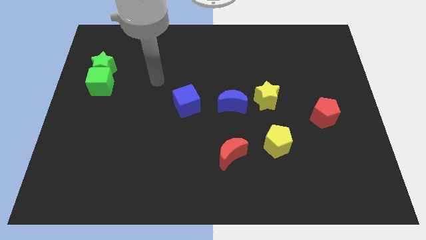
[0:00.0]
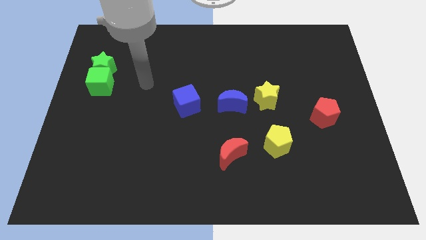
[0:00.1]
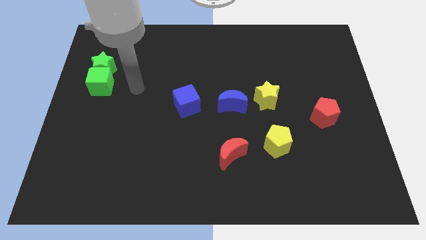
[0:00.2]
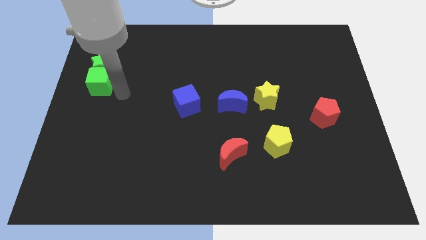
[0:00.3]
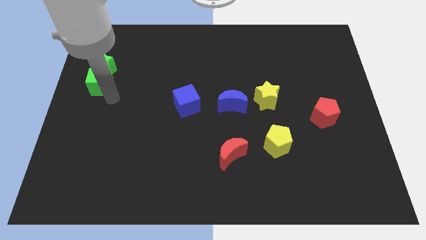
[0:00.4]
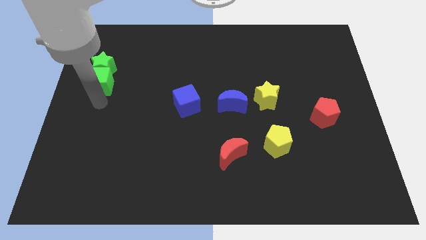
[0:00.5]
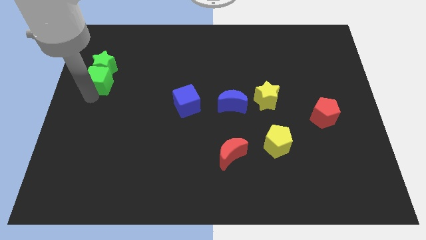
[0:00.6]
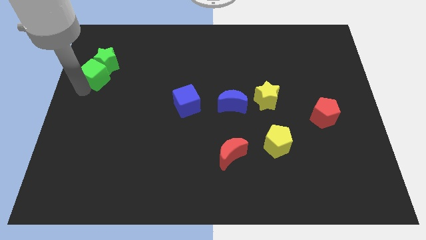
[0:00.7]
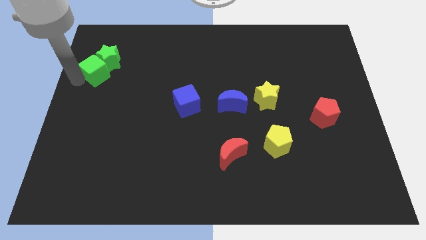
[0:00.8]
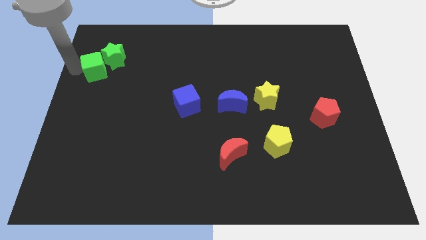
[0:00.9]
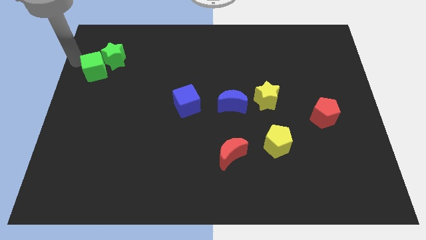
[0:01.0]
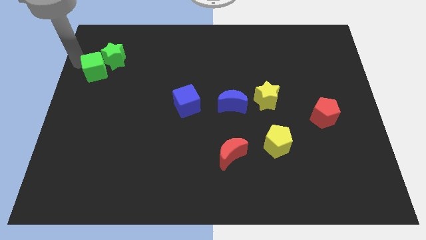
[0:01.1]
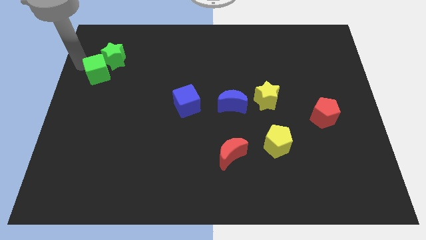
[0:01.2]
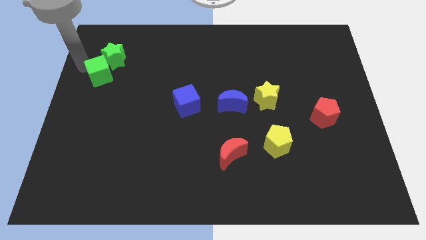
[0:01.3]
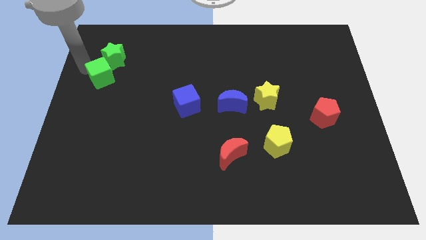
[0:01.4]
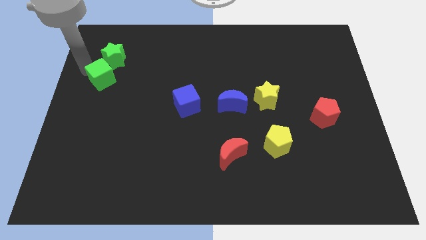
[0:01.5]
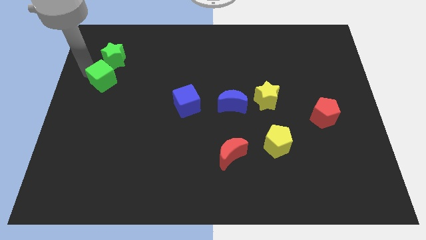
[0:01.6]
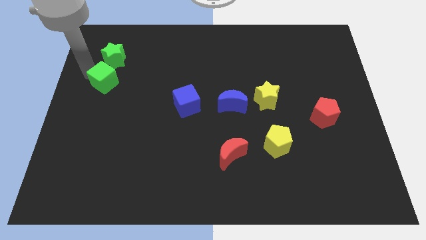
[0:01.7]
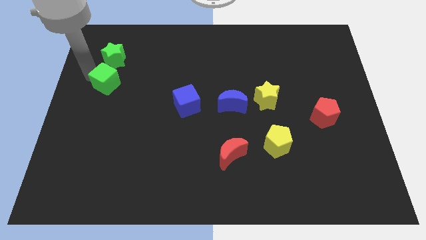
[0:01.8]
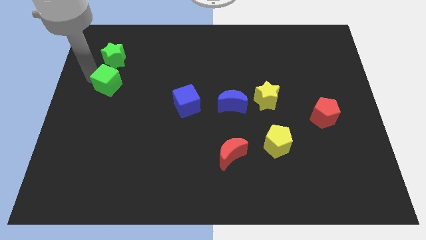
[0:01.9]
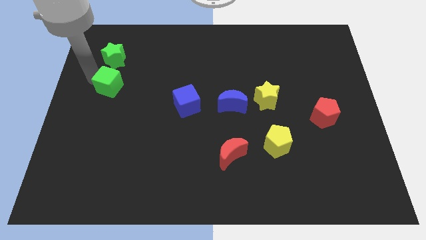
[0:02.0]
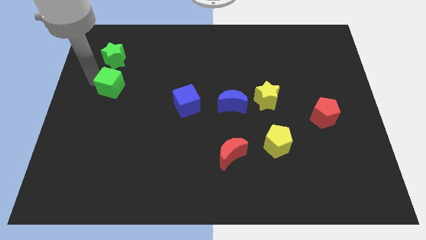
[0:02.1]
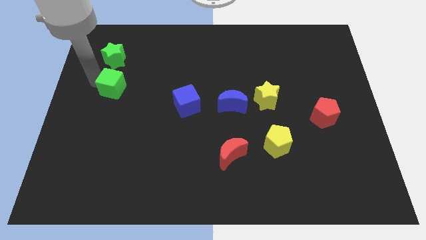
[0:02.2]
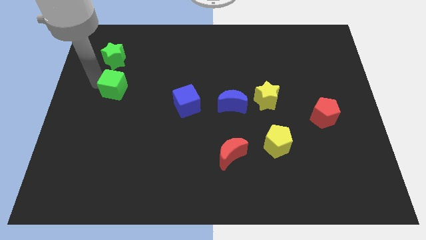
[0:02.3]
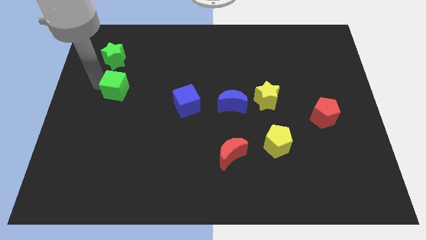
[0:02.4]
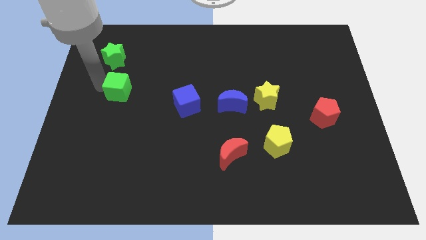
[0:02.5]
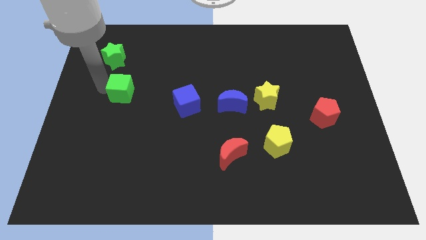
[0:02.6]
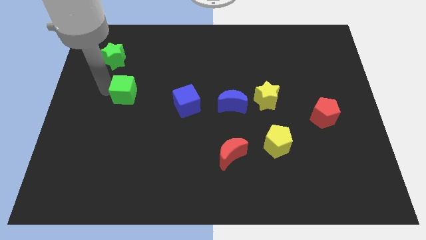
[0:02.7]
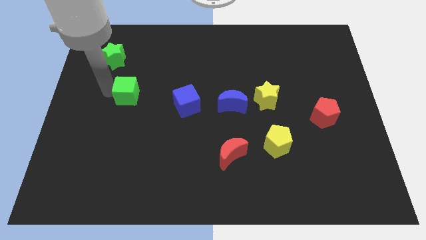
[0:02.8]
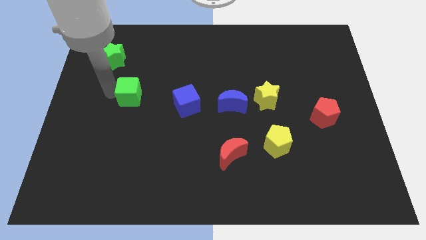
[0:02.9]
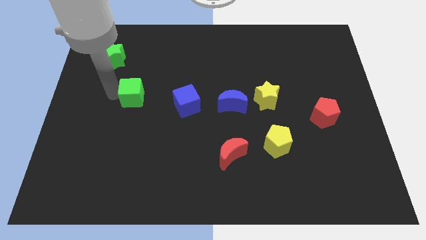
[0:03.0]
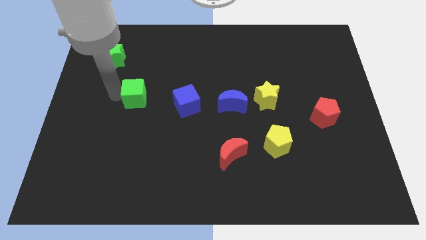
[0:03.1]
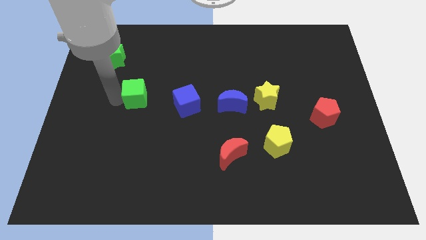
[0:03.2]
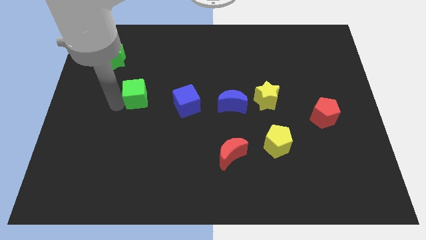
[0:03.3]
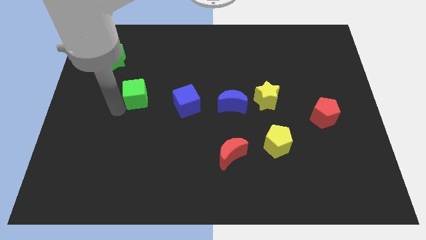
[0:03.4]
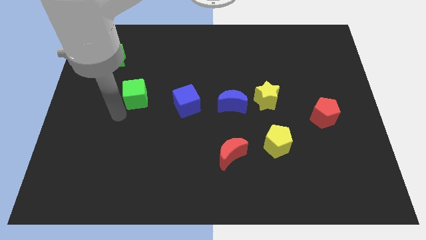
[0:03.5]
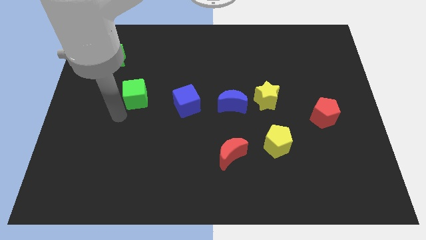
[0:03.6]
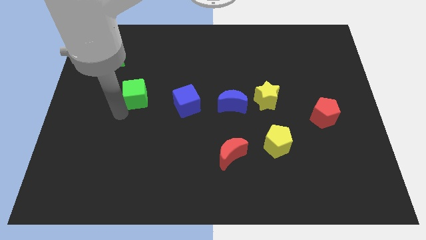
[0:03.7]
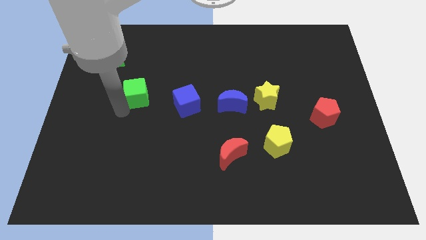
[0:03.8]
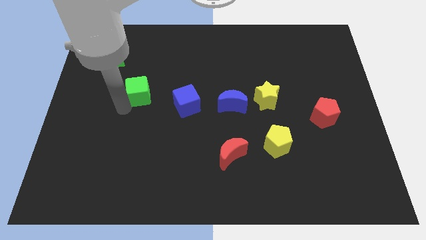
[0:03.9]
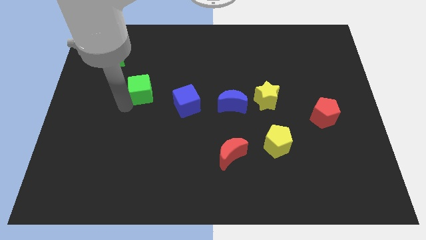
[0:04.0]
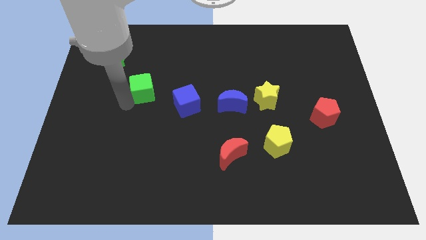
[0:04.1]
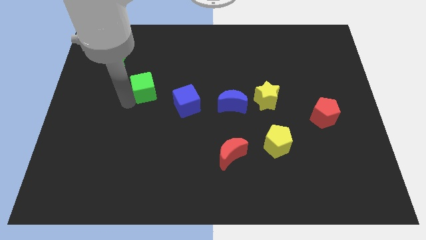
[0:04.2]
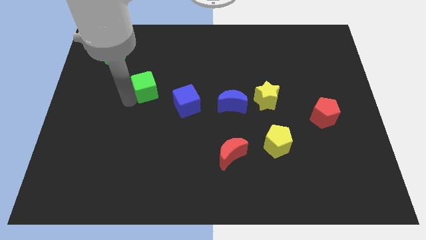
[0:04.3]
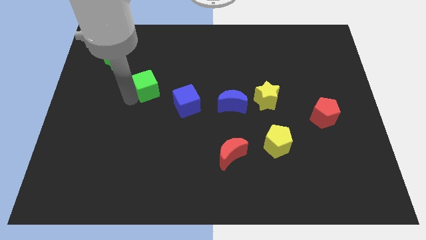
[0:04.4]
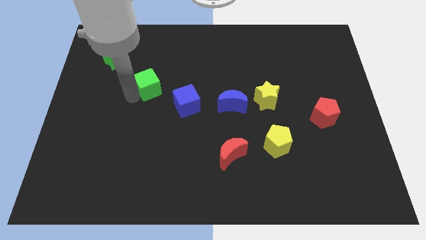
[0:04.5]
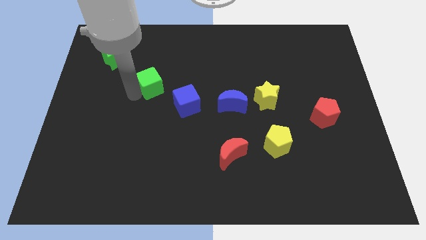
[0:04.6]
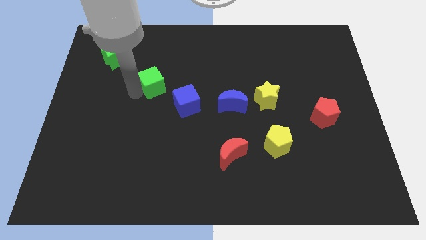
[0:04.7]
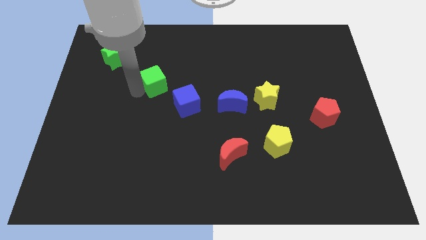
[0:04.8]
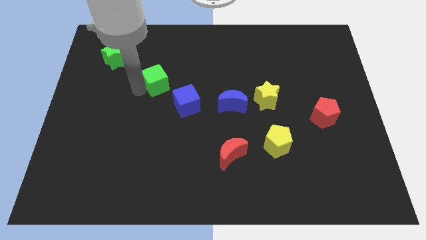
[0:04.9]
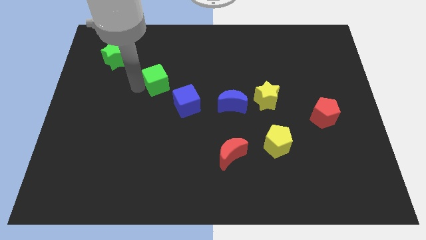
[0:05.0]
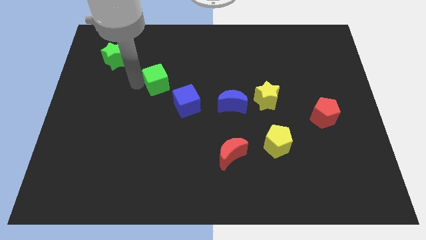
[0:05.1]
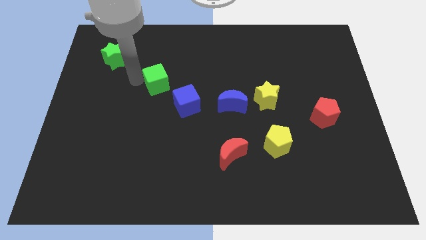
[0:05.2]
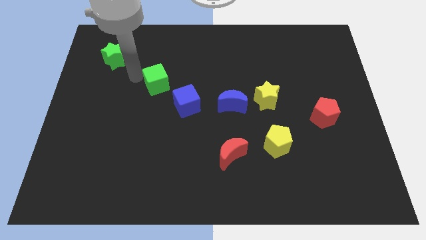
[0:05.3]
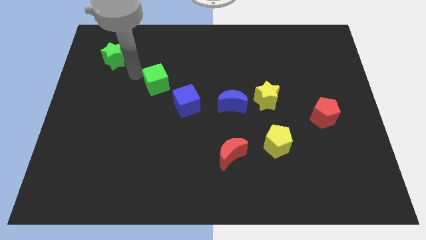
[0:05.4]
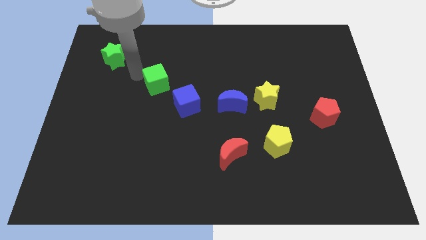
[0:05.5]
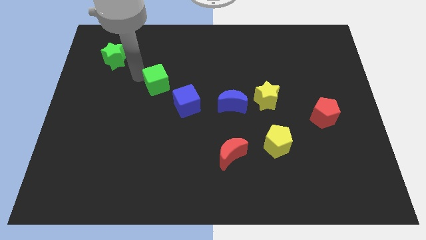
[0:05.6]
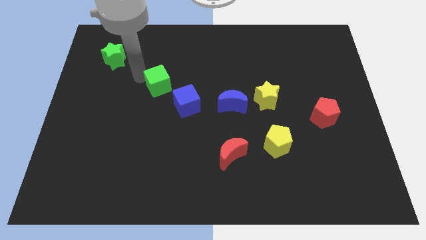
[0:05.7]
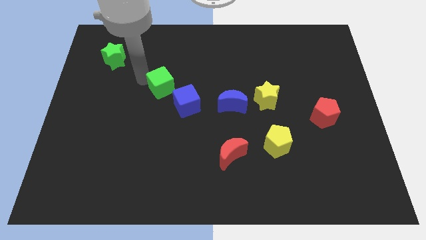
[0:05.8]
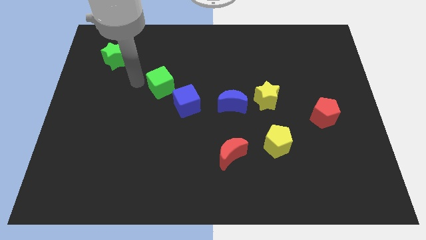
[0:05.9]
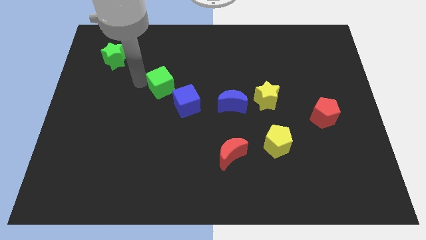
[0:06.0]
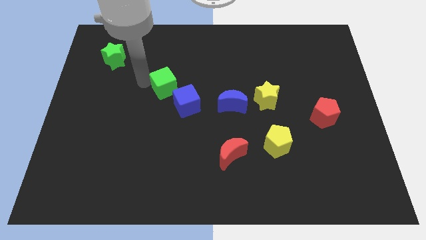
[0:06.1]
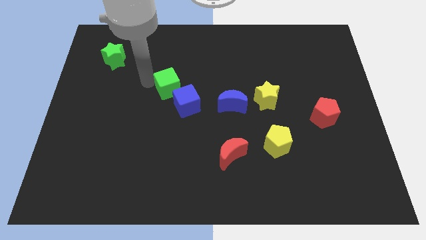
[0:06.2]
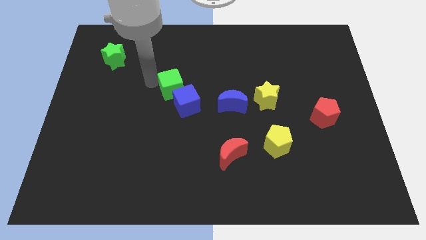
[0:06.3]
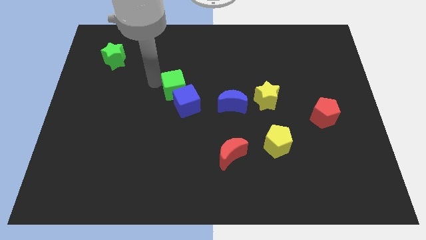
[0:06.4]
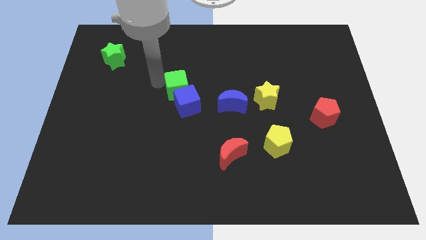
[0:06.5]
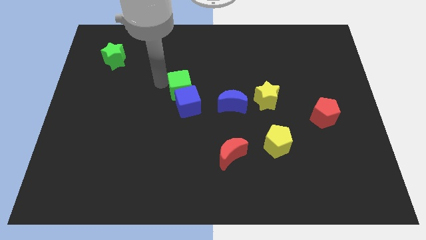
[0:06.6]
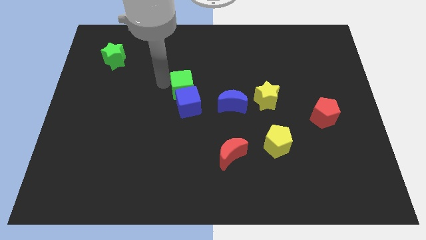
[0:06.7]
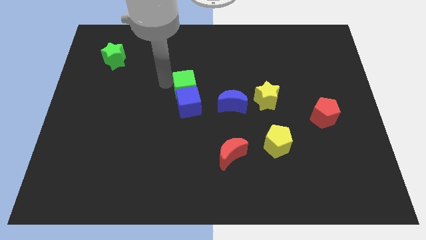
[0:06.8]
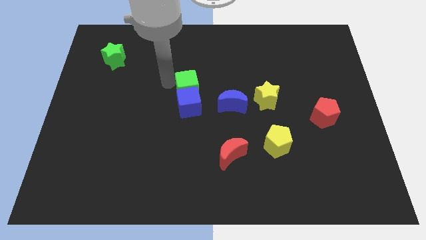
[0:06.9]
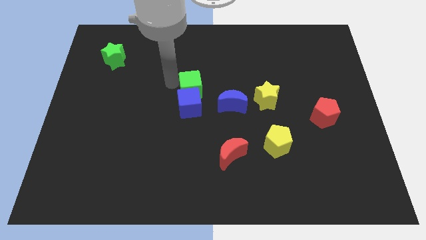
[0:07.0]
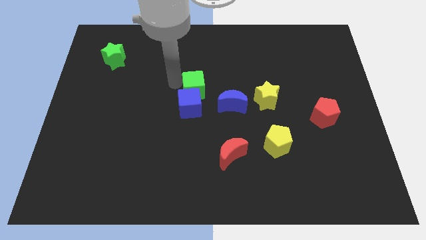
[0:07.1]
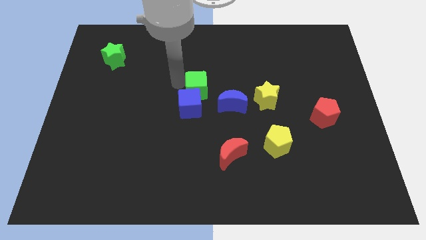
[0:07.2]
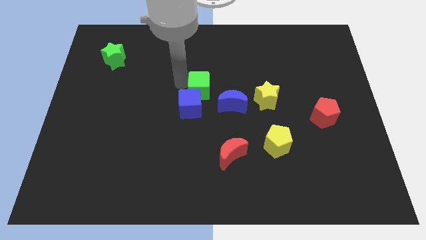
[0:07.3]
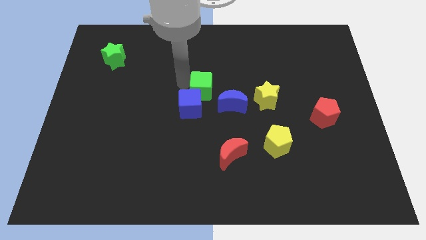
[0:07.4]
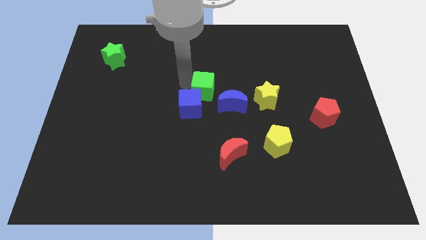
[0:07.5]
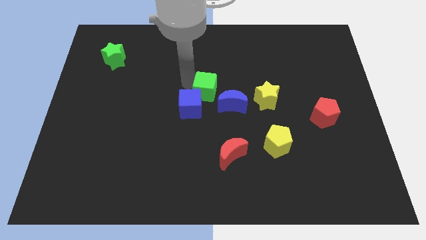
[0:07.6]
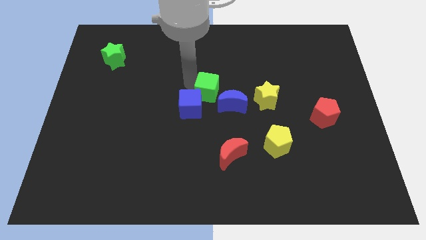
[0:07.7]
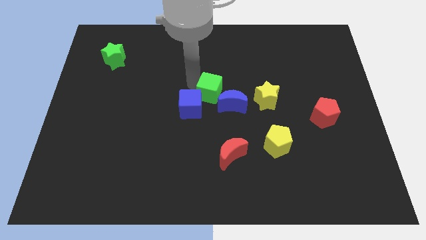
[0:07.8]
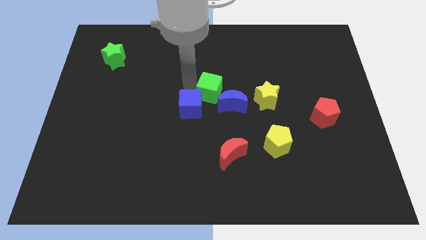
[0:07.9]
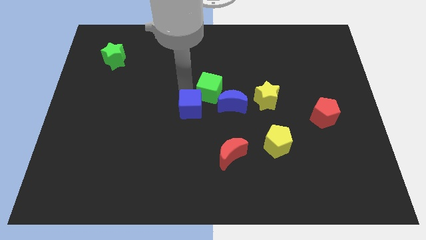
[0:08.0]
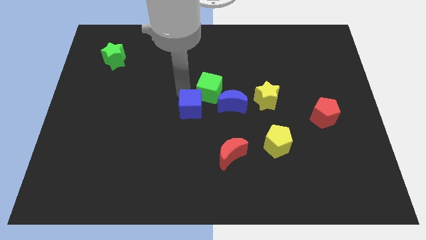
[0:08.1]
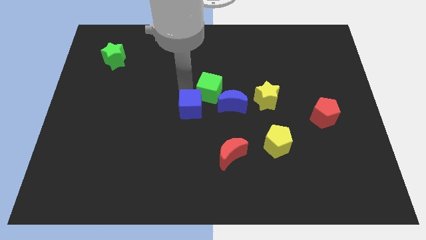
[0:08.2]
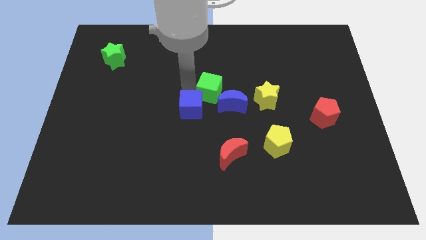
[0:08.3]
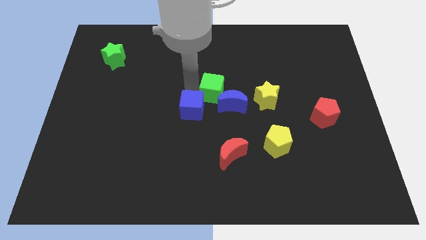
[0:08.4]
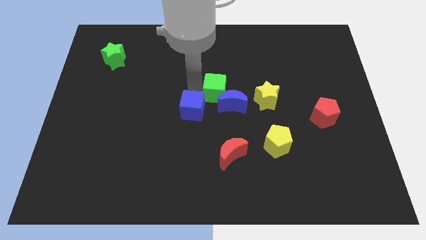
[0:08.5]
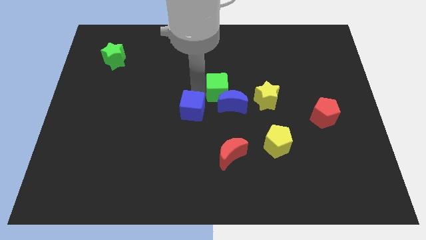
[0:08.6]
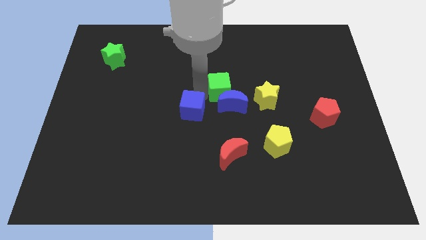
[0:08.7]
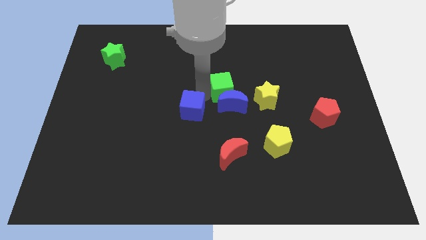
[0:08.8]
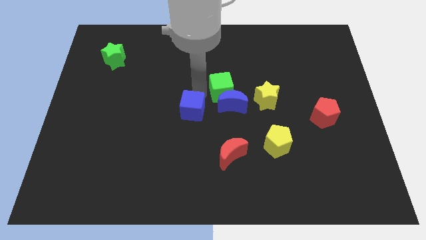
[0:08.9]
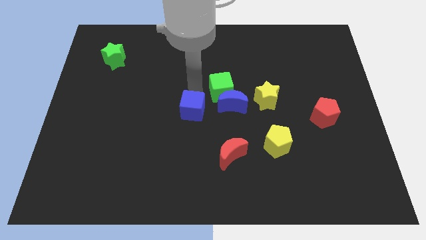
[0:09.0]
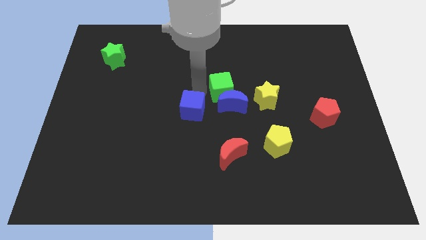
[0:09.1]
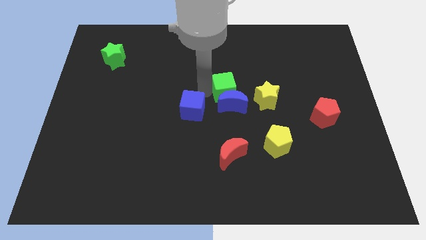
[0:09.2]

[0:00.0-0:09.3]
push the green cube diagonally up and to the right of the blue moon
